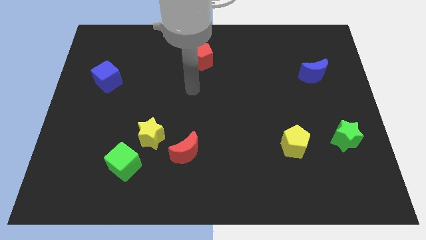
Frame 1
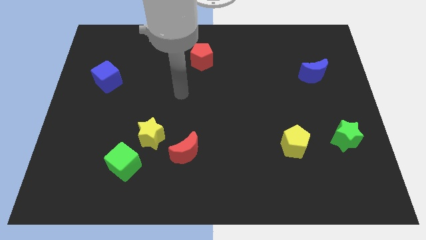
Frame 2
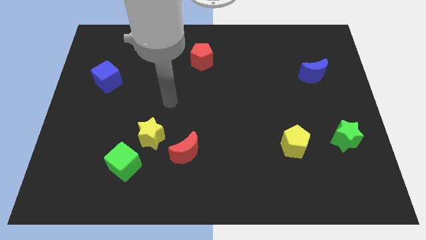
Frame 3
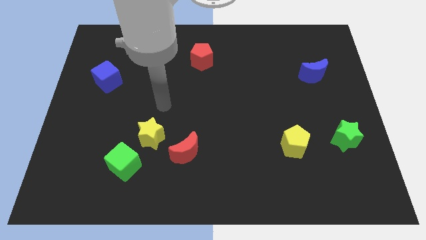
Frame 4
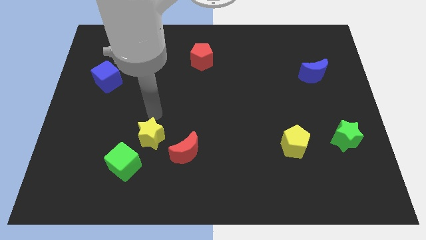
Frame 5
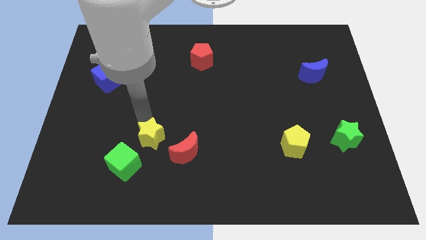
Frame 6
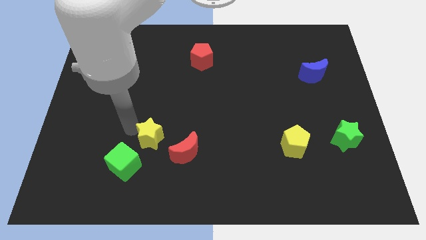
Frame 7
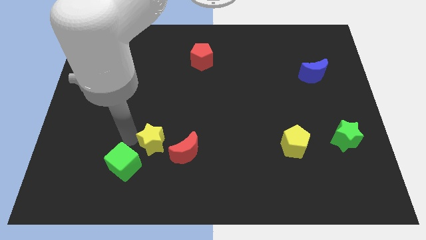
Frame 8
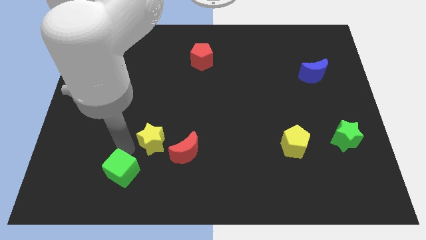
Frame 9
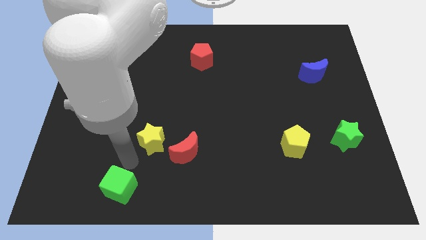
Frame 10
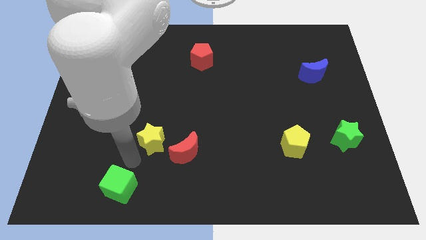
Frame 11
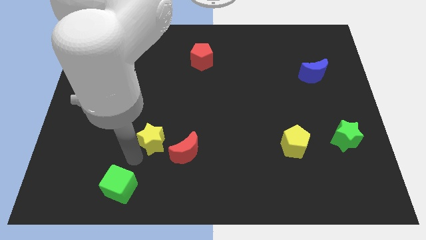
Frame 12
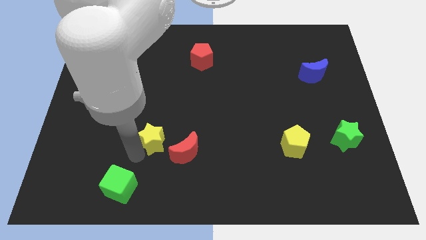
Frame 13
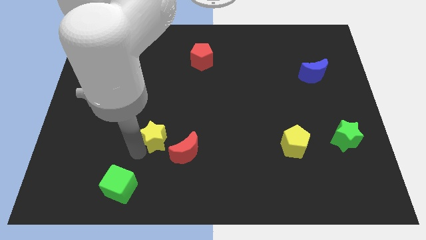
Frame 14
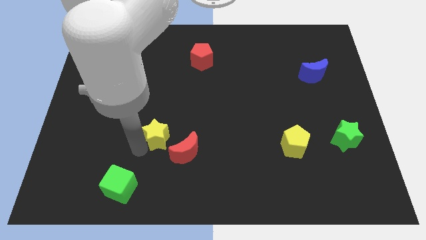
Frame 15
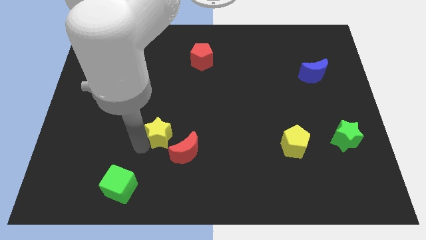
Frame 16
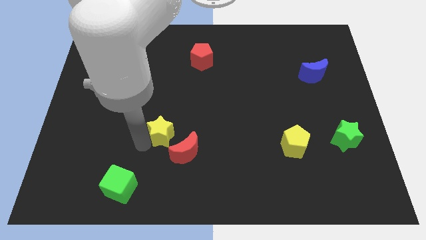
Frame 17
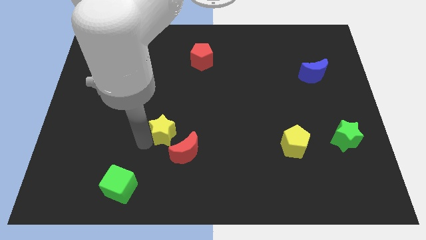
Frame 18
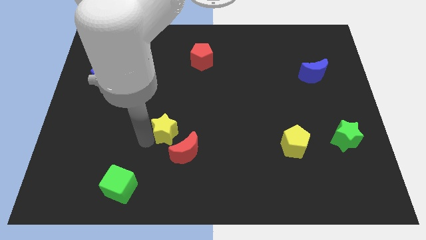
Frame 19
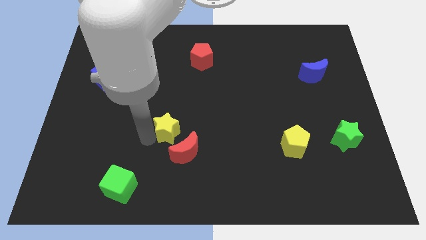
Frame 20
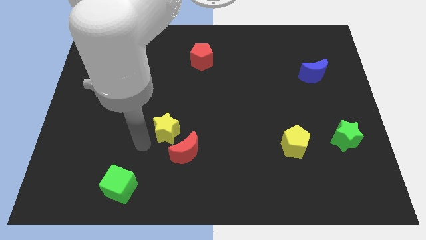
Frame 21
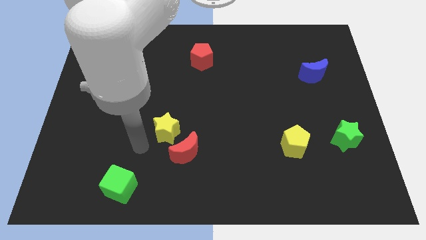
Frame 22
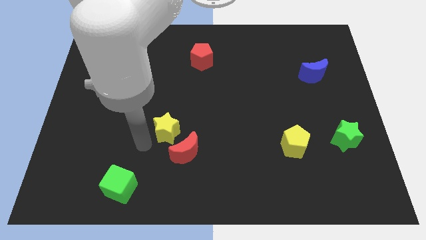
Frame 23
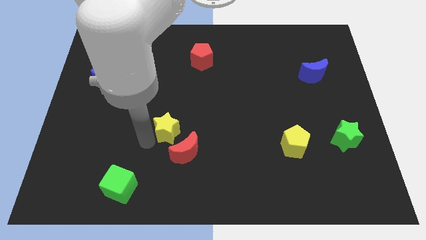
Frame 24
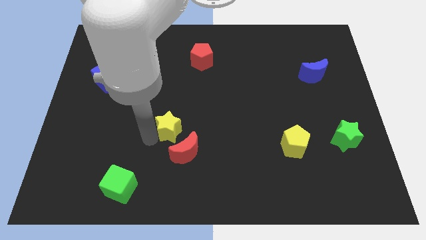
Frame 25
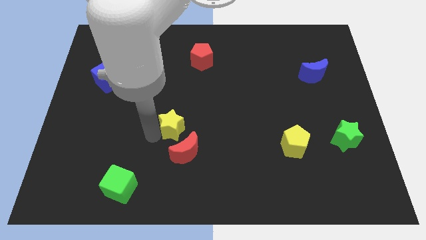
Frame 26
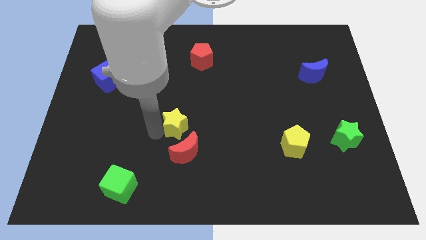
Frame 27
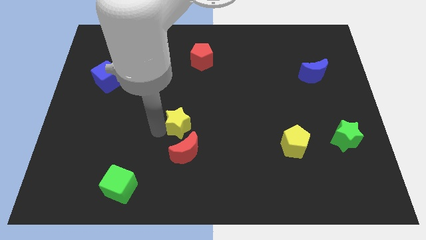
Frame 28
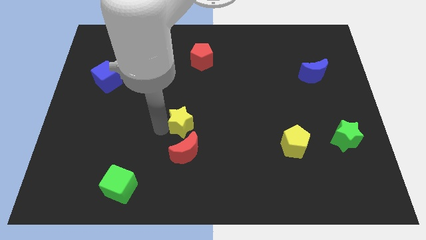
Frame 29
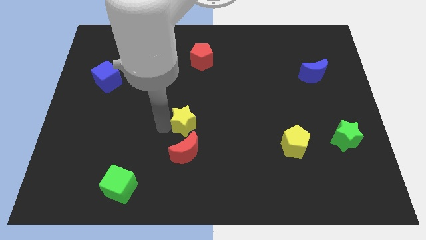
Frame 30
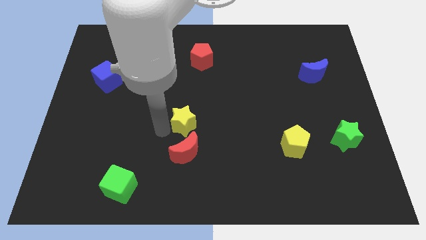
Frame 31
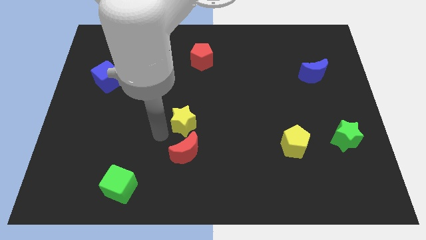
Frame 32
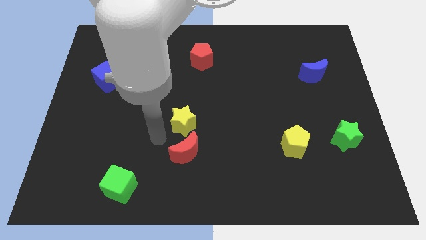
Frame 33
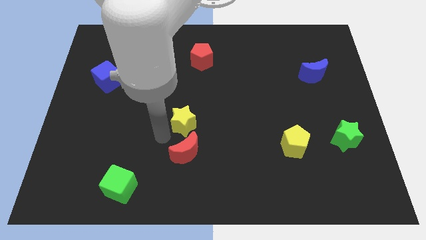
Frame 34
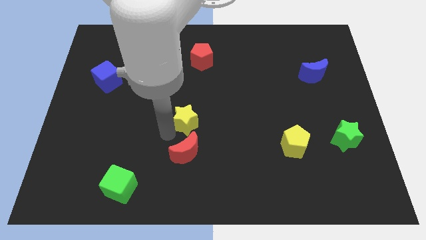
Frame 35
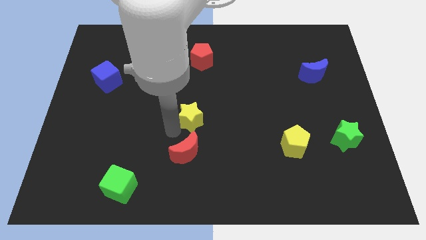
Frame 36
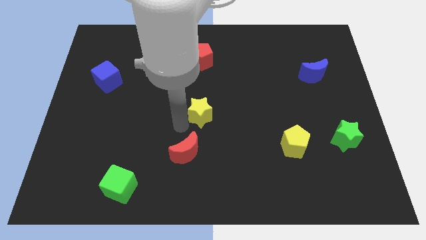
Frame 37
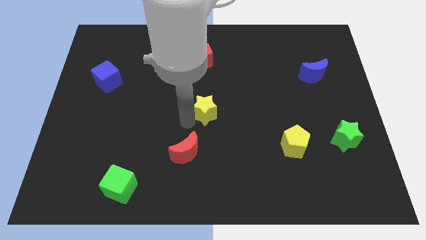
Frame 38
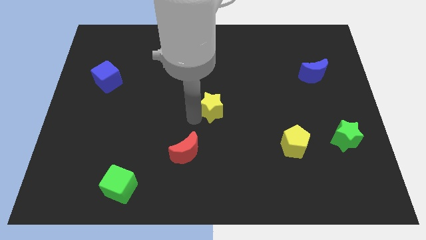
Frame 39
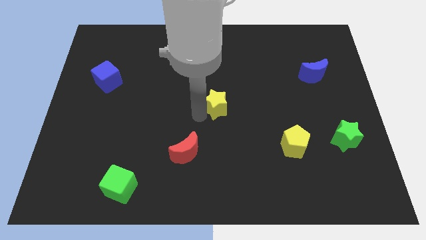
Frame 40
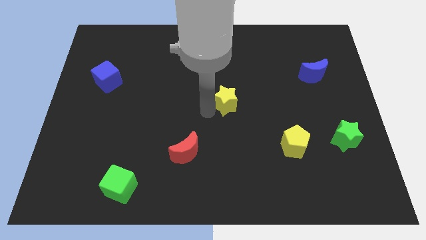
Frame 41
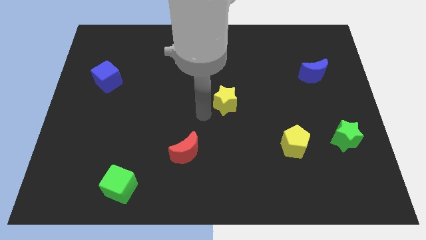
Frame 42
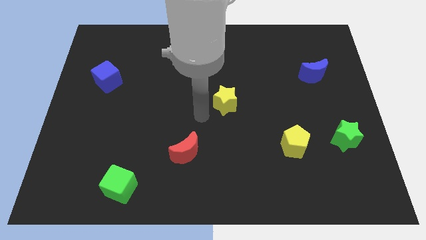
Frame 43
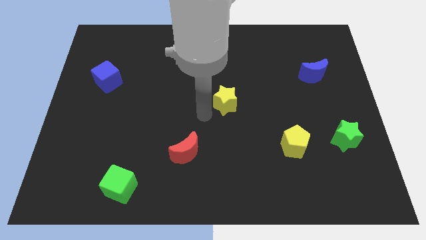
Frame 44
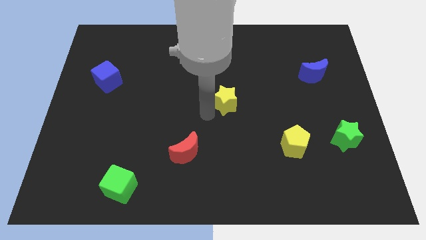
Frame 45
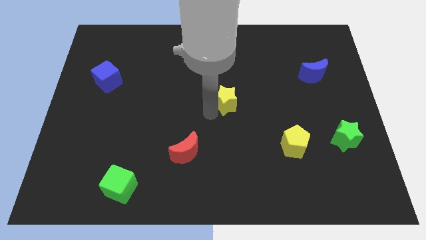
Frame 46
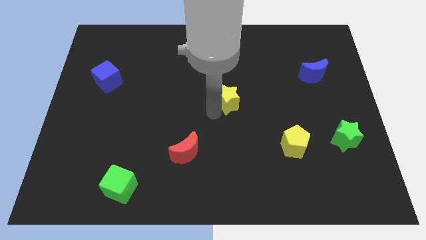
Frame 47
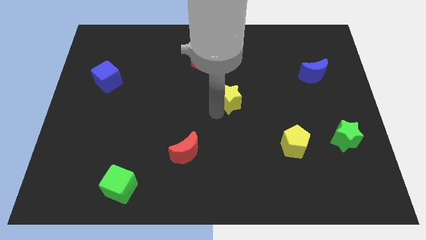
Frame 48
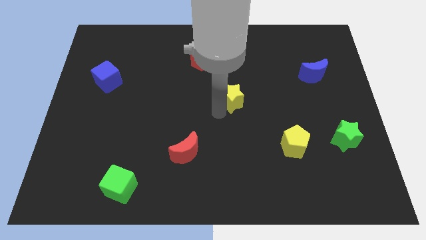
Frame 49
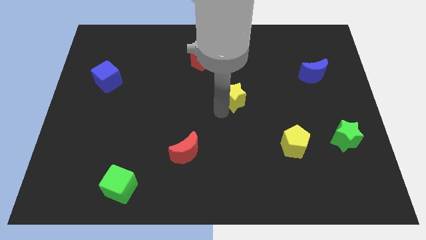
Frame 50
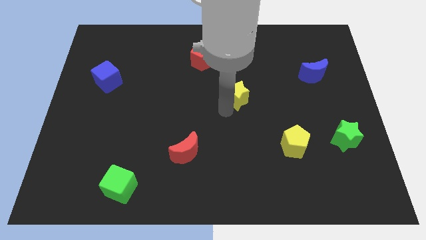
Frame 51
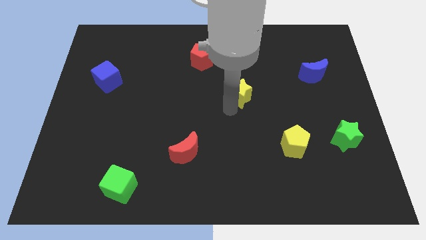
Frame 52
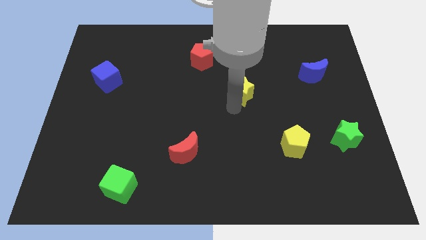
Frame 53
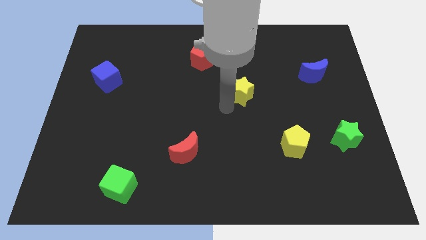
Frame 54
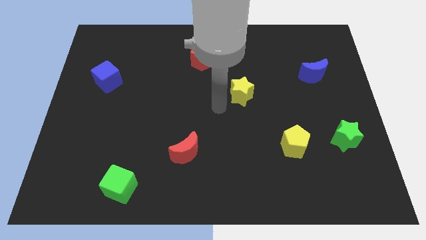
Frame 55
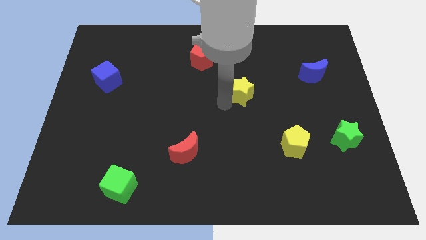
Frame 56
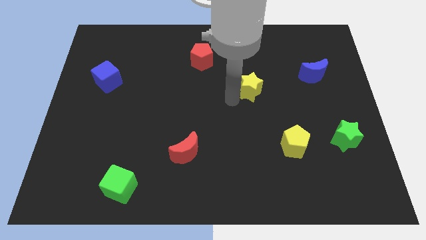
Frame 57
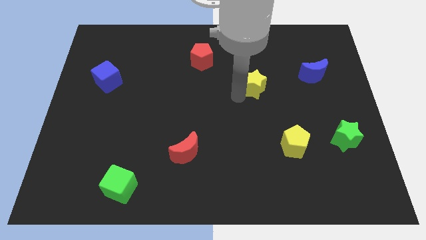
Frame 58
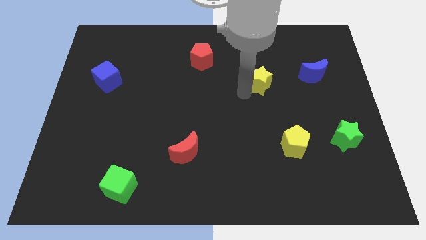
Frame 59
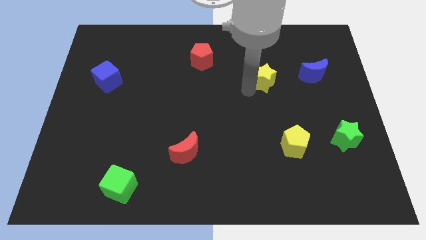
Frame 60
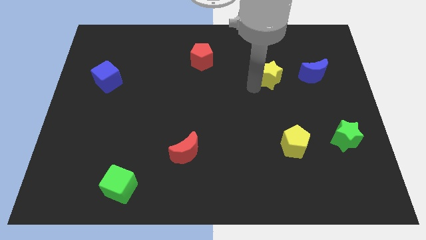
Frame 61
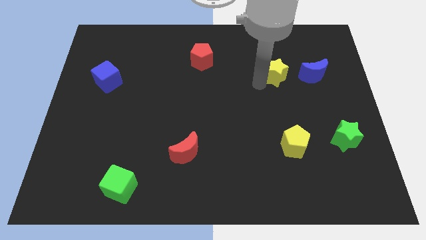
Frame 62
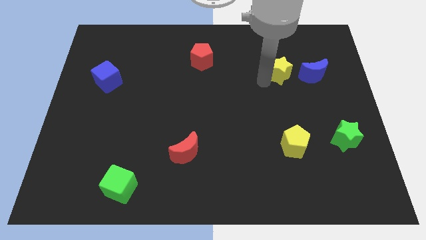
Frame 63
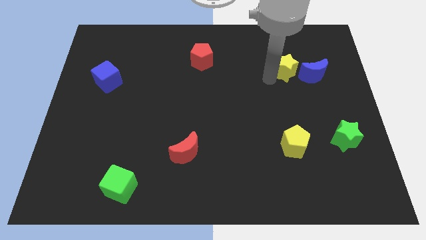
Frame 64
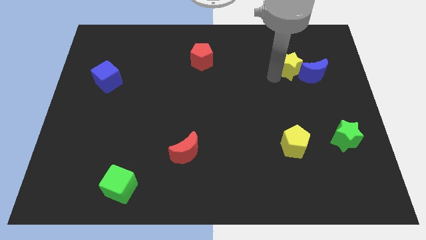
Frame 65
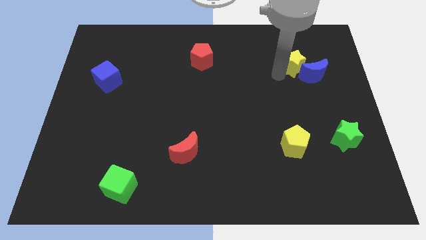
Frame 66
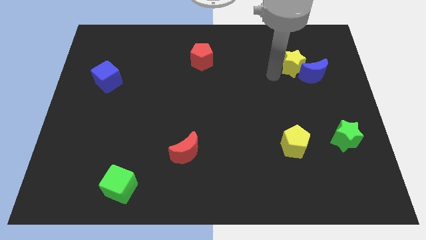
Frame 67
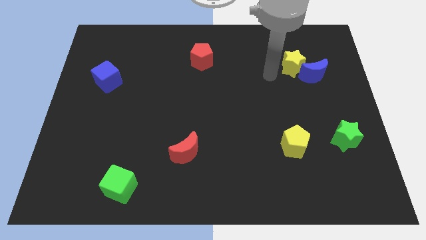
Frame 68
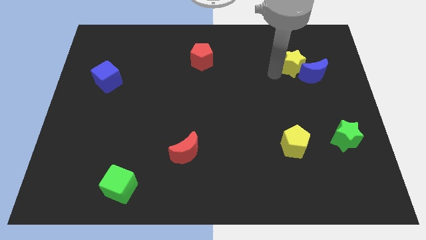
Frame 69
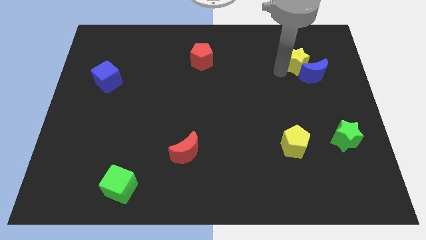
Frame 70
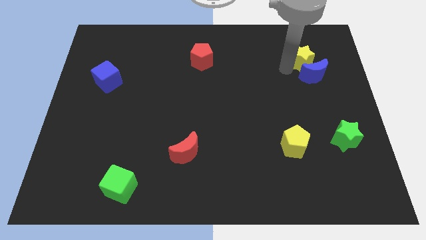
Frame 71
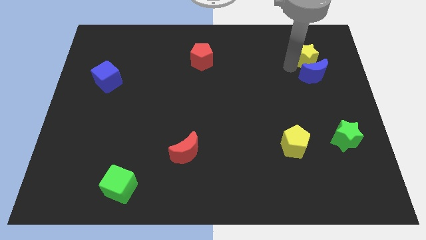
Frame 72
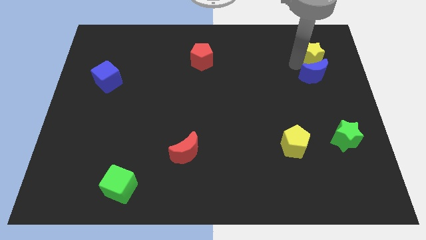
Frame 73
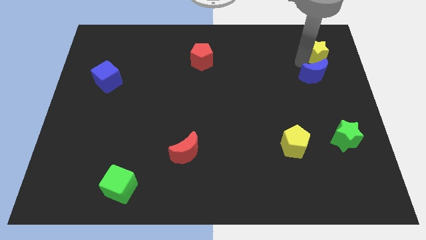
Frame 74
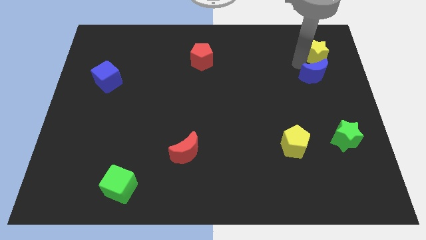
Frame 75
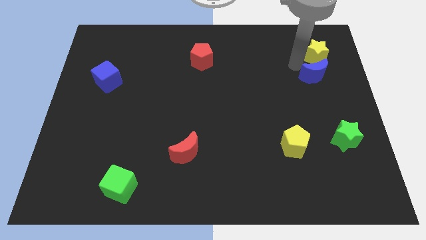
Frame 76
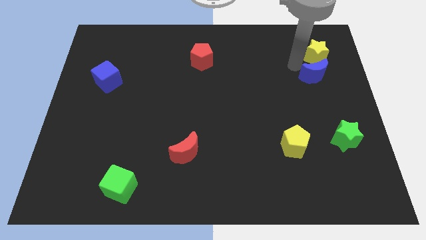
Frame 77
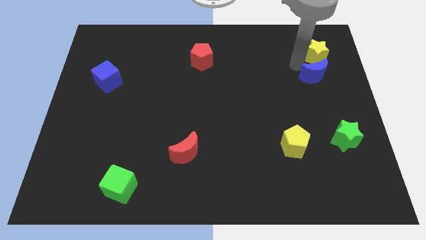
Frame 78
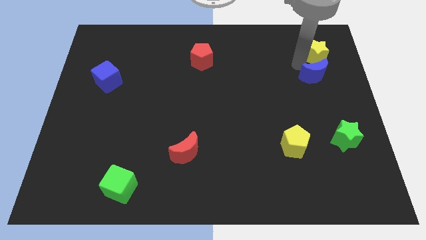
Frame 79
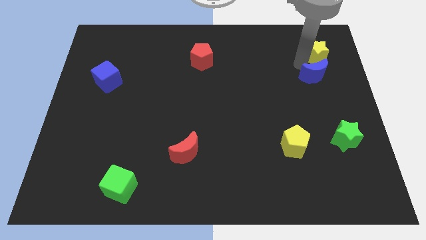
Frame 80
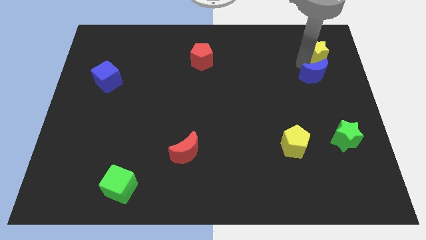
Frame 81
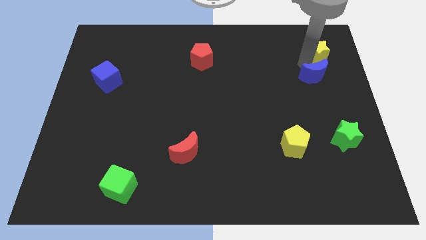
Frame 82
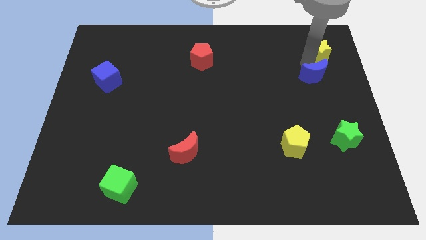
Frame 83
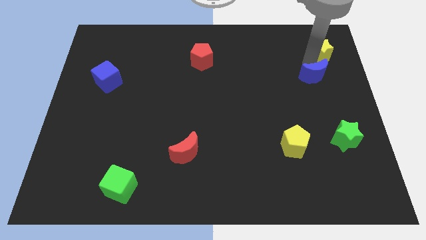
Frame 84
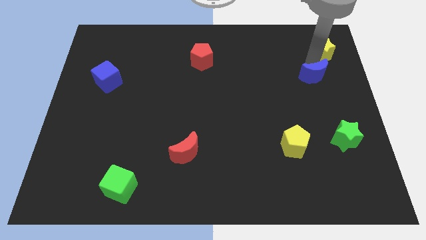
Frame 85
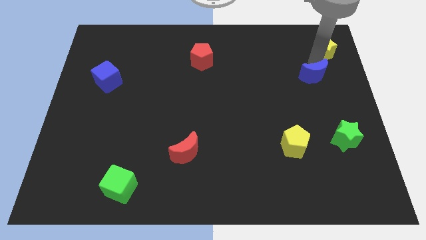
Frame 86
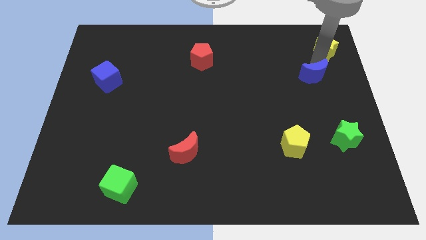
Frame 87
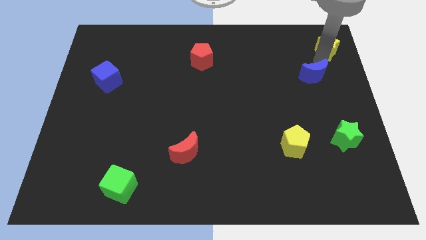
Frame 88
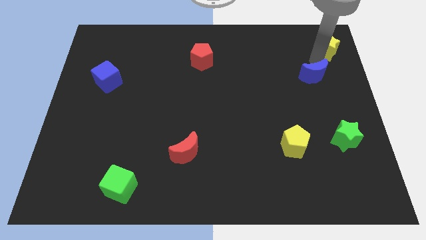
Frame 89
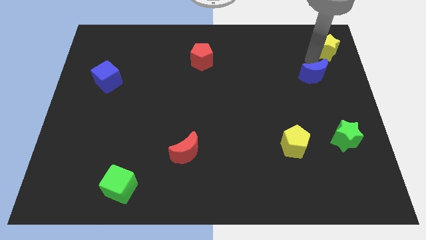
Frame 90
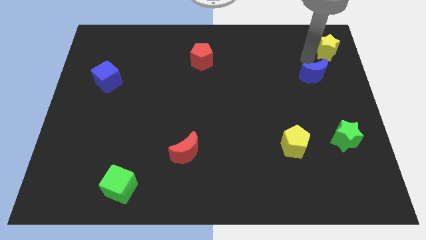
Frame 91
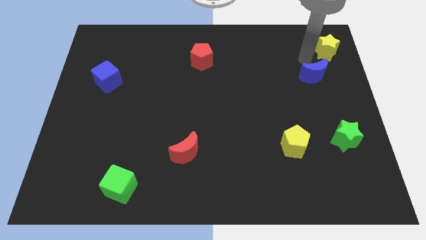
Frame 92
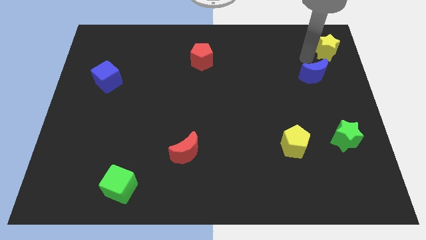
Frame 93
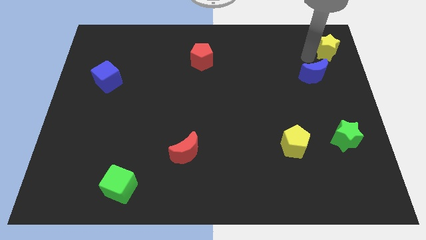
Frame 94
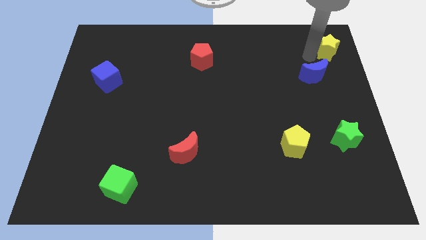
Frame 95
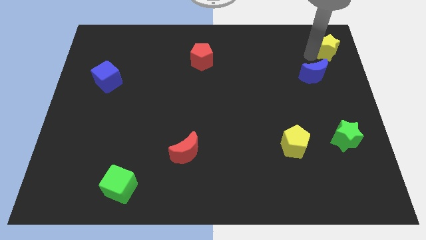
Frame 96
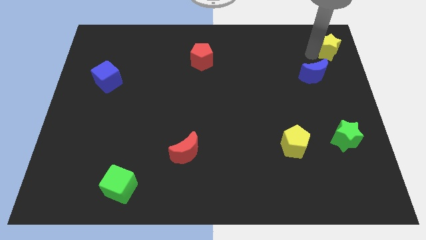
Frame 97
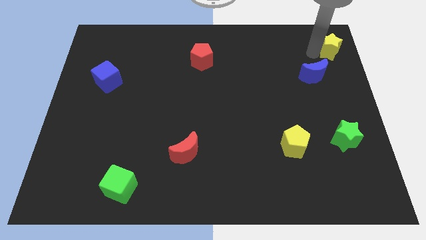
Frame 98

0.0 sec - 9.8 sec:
put the yellow star to the upper right corner
